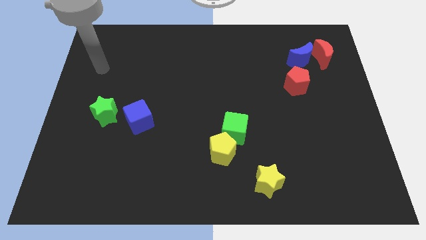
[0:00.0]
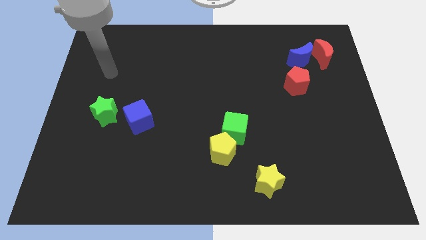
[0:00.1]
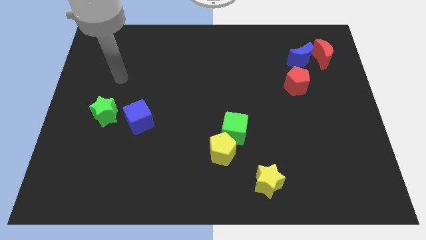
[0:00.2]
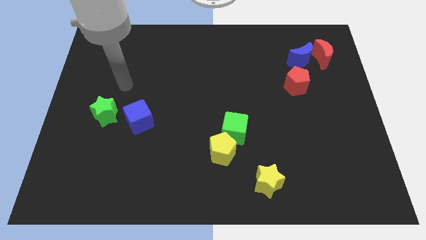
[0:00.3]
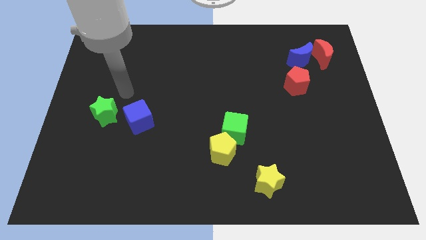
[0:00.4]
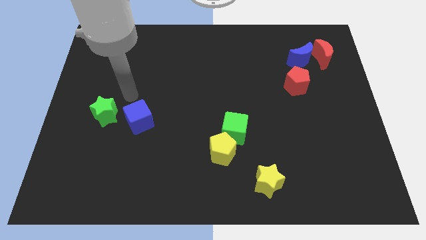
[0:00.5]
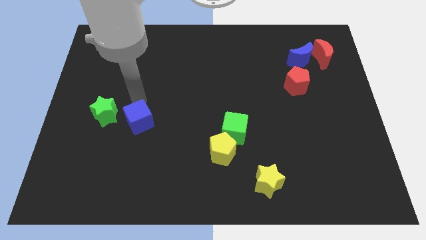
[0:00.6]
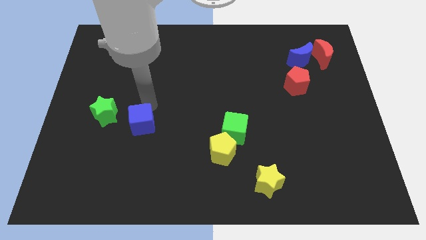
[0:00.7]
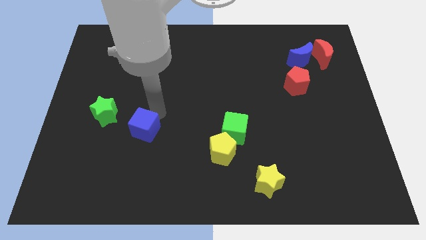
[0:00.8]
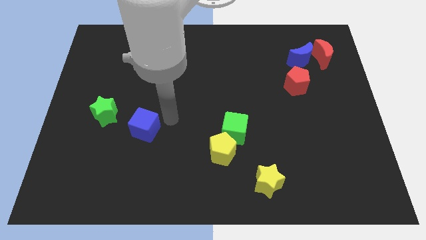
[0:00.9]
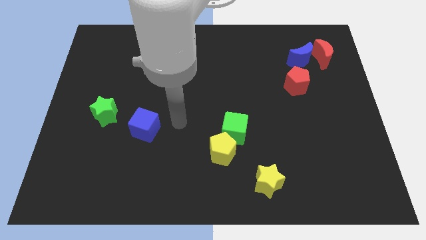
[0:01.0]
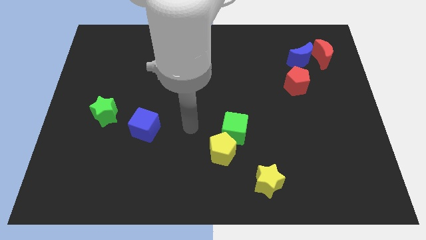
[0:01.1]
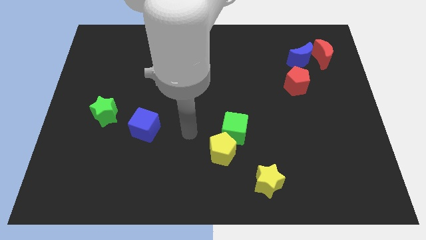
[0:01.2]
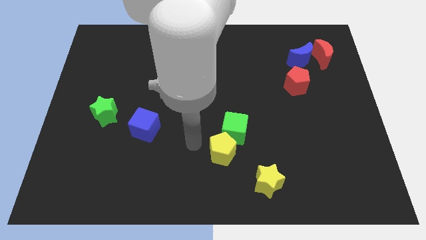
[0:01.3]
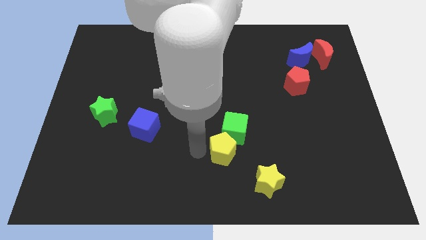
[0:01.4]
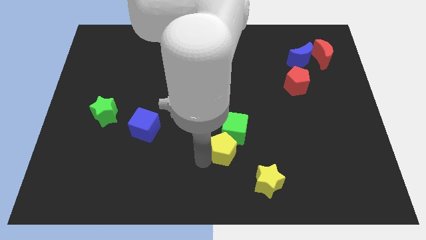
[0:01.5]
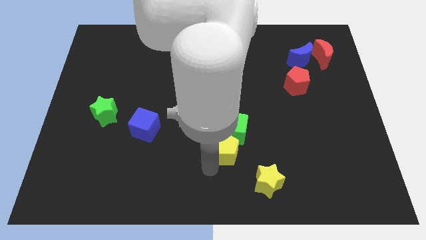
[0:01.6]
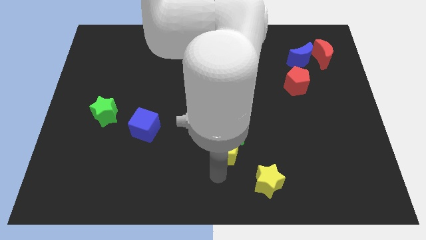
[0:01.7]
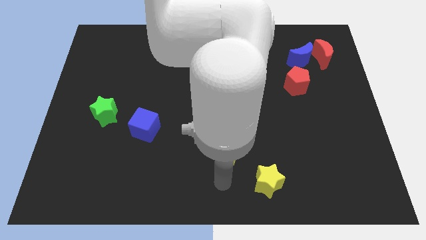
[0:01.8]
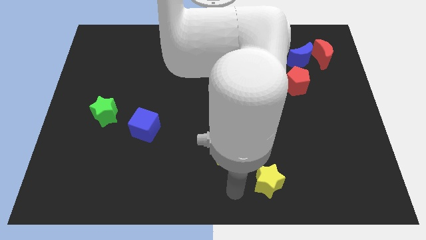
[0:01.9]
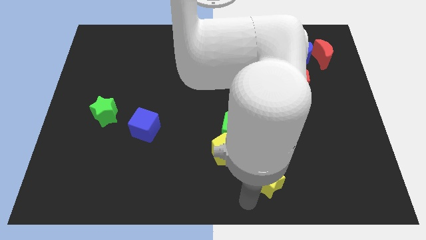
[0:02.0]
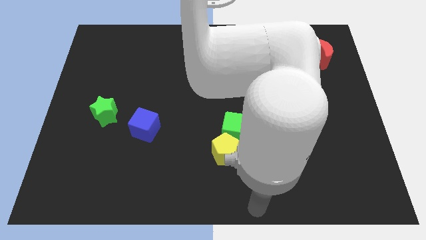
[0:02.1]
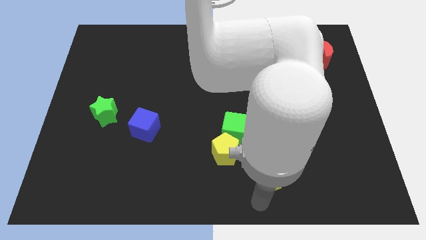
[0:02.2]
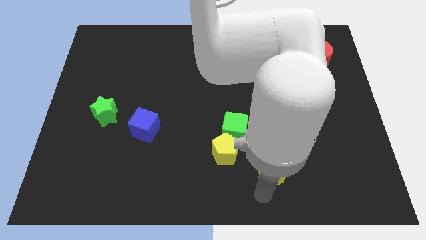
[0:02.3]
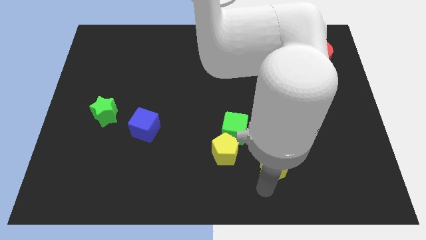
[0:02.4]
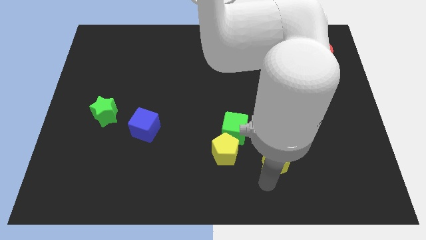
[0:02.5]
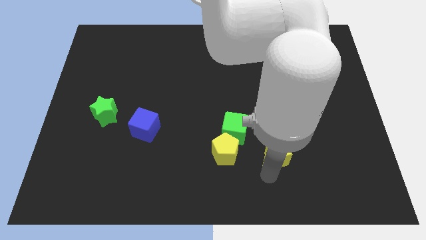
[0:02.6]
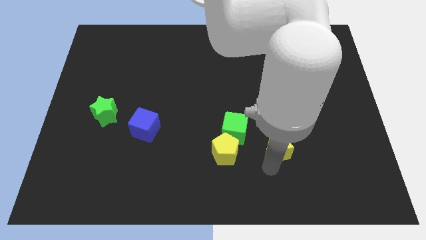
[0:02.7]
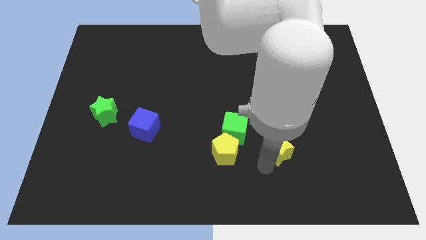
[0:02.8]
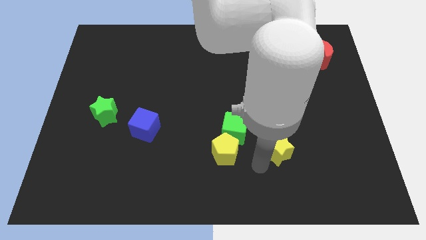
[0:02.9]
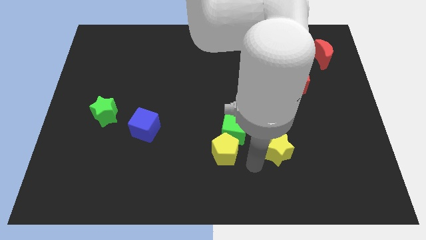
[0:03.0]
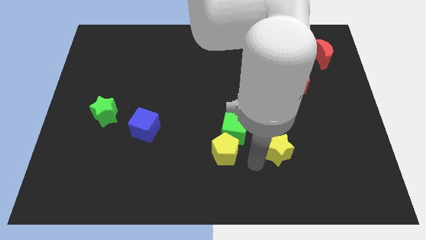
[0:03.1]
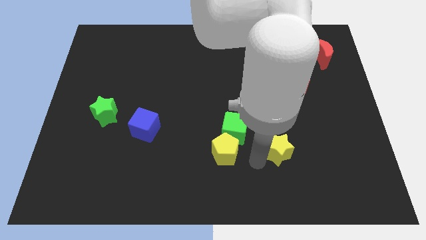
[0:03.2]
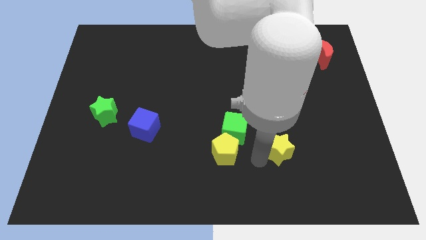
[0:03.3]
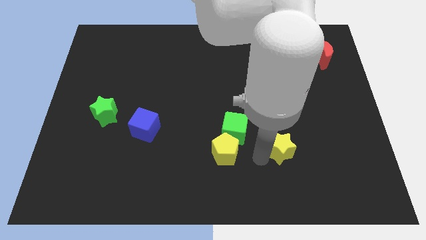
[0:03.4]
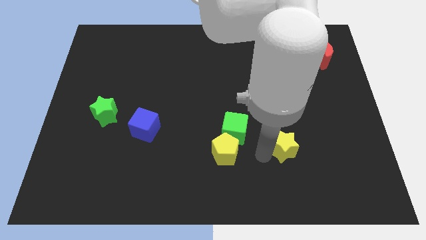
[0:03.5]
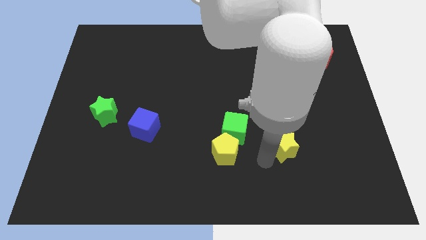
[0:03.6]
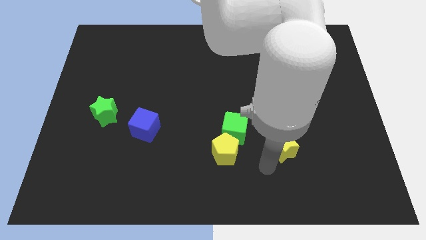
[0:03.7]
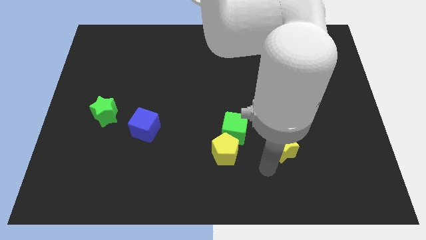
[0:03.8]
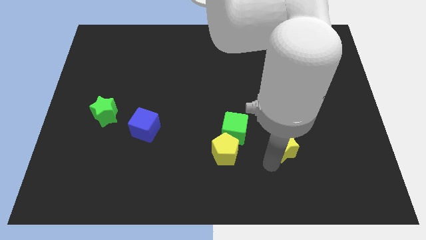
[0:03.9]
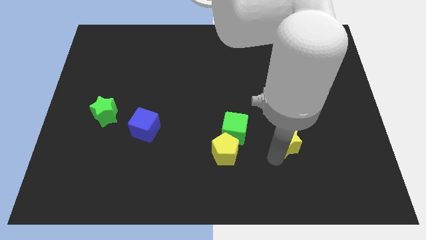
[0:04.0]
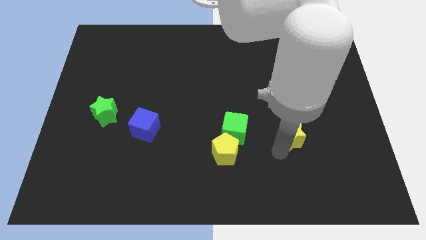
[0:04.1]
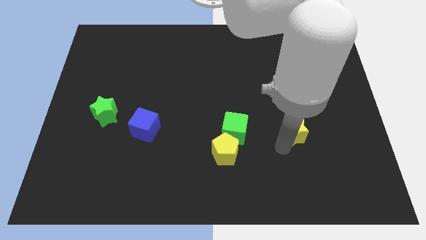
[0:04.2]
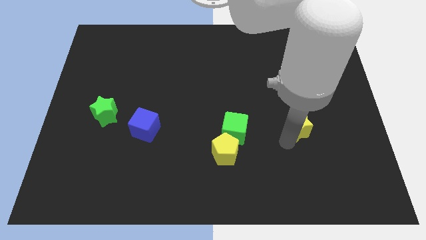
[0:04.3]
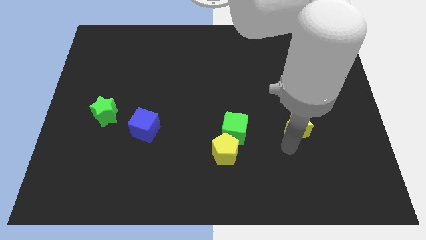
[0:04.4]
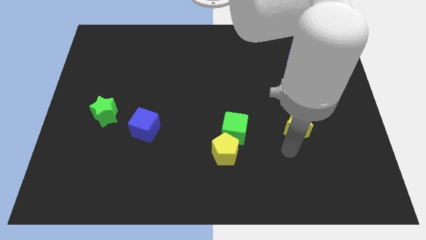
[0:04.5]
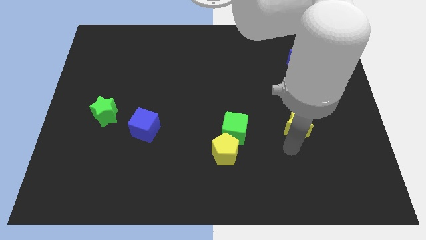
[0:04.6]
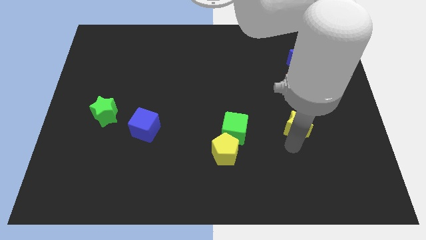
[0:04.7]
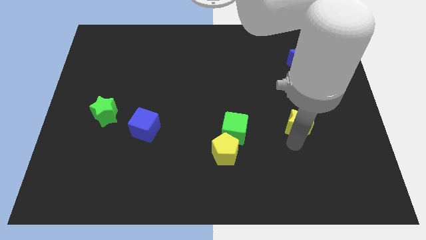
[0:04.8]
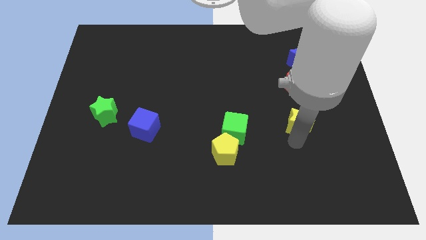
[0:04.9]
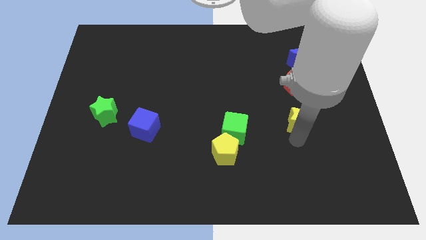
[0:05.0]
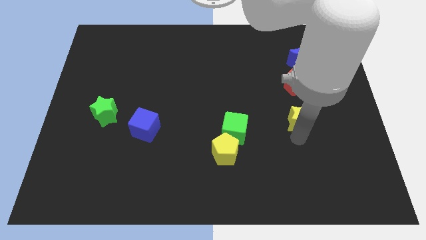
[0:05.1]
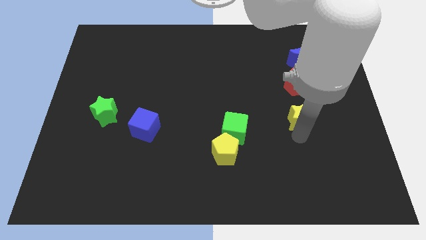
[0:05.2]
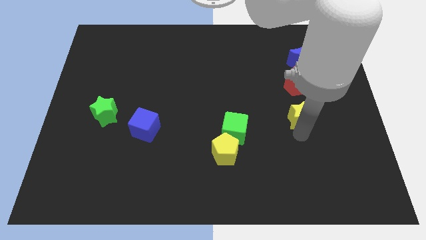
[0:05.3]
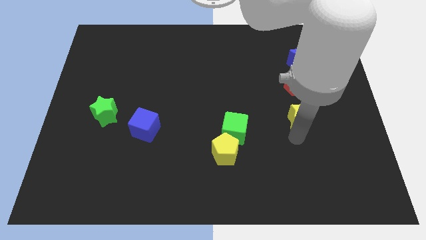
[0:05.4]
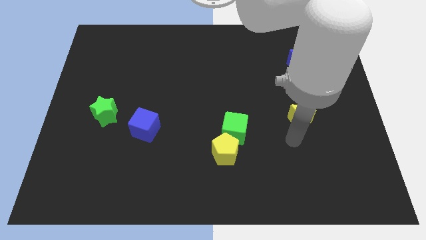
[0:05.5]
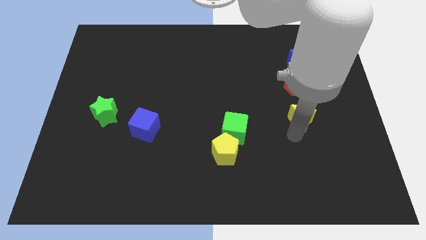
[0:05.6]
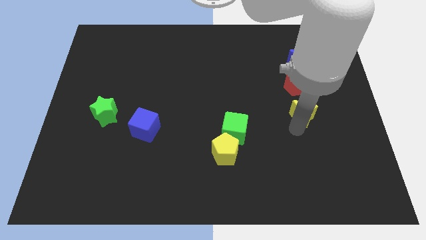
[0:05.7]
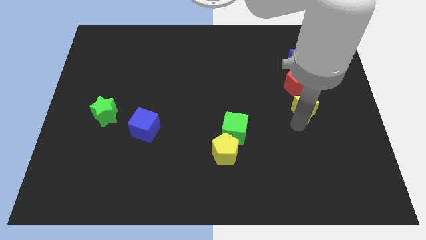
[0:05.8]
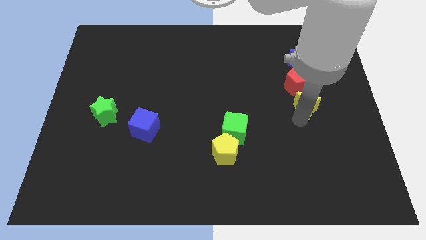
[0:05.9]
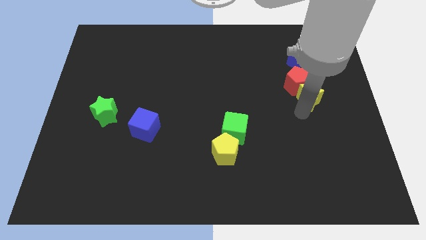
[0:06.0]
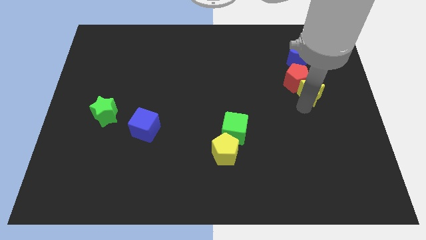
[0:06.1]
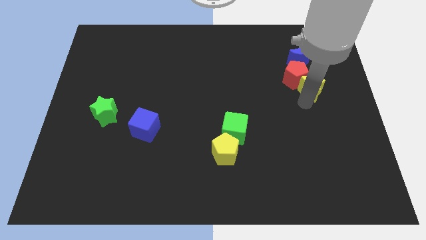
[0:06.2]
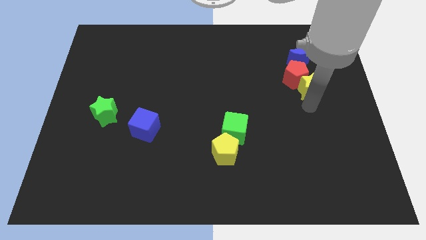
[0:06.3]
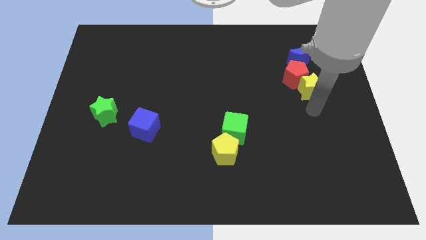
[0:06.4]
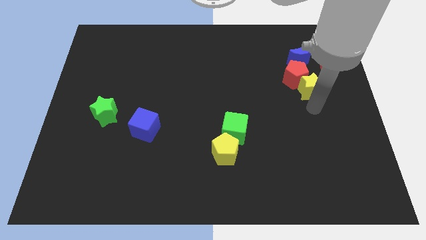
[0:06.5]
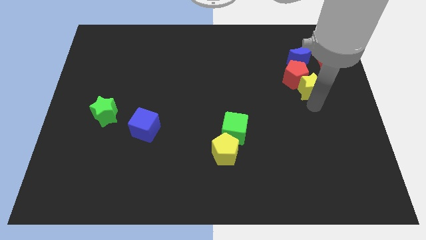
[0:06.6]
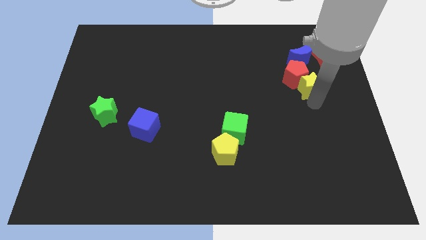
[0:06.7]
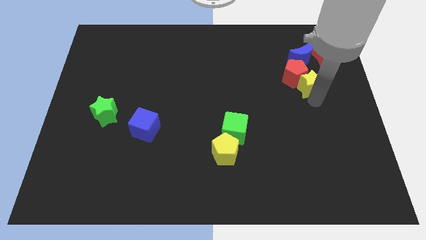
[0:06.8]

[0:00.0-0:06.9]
slide the yellow star to the bottom left of the red moon

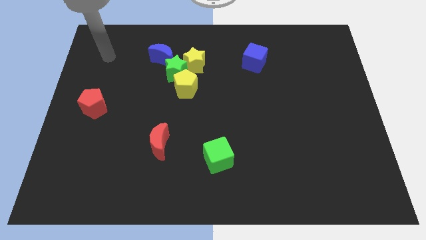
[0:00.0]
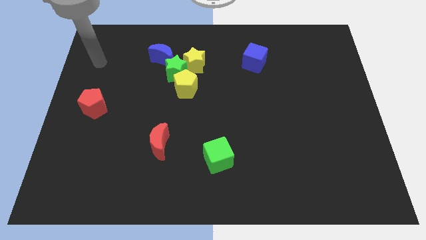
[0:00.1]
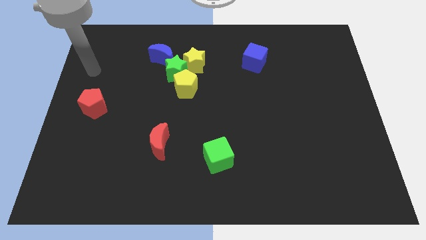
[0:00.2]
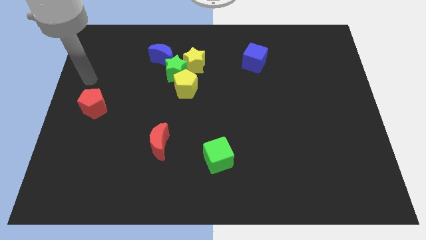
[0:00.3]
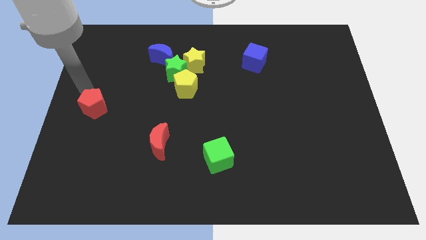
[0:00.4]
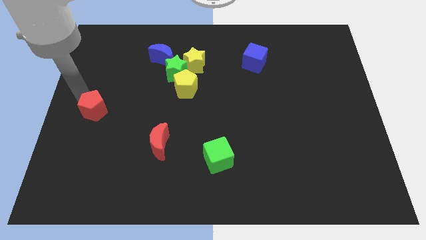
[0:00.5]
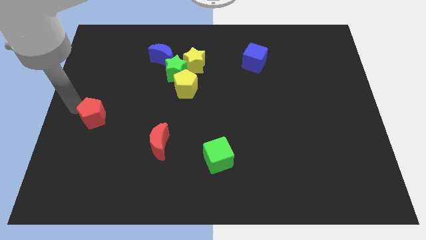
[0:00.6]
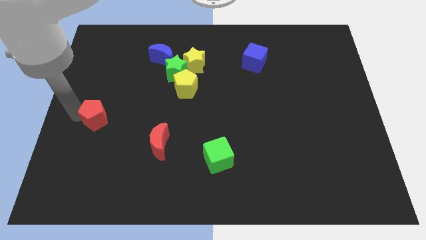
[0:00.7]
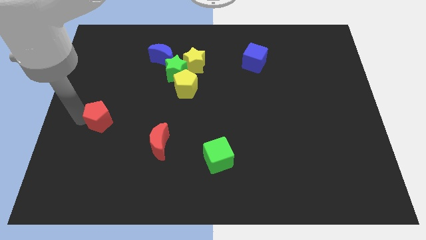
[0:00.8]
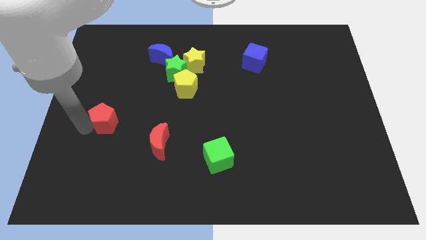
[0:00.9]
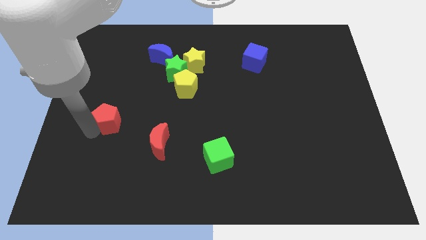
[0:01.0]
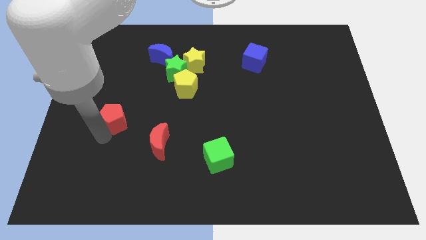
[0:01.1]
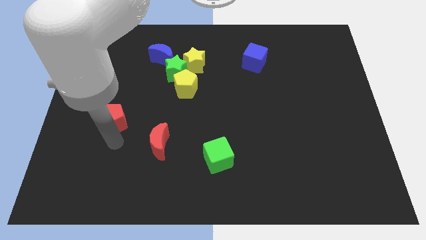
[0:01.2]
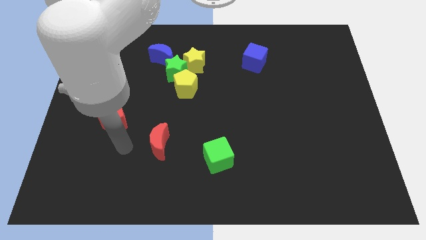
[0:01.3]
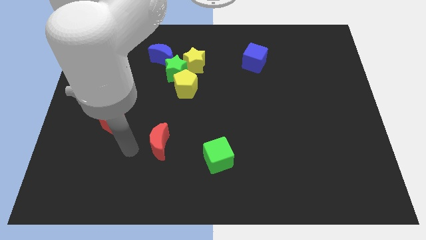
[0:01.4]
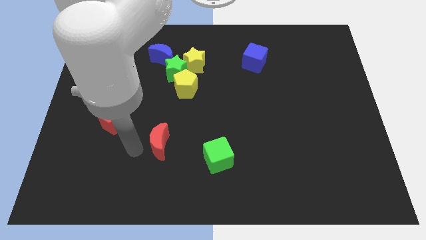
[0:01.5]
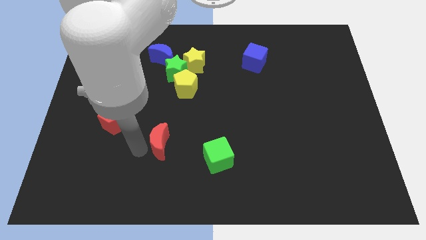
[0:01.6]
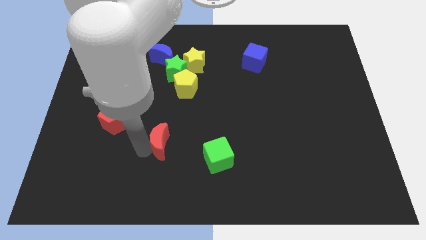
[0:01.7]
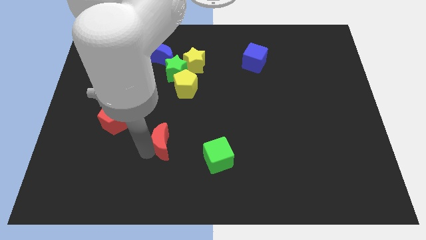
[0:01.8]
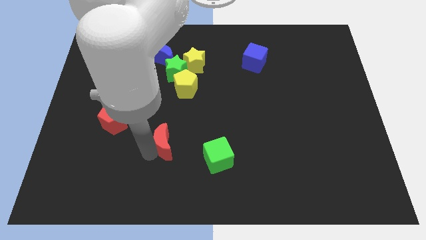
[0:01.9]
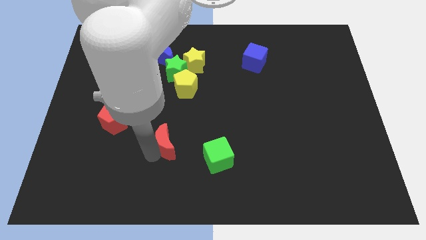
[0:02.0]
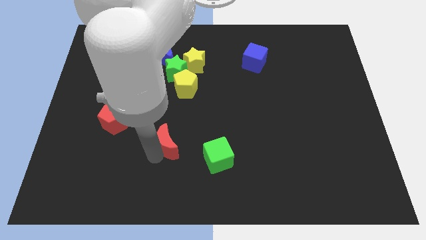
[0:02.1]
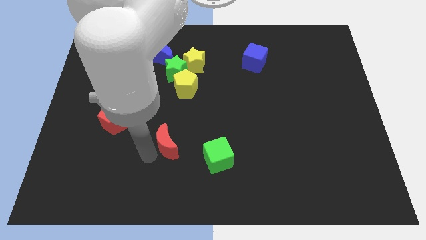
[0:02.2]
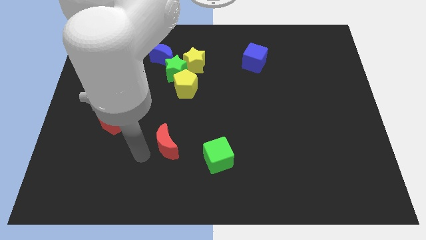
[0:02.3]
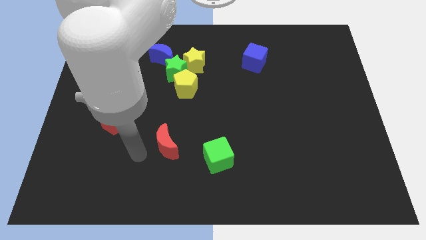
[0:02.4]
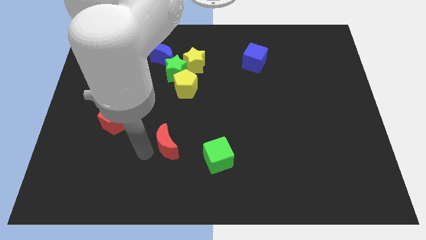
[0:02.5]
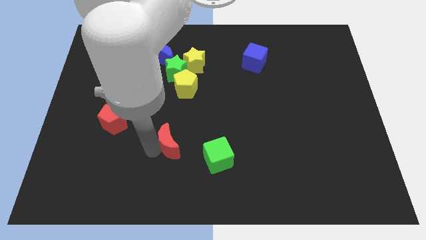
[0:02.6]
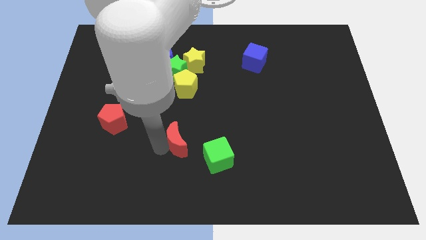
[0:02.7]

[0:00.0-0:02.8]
put the red moon to the top left side of the green cube
